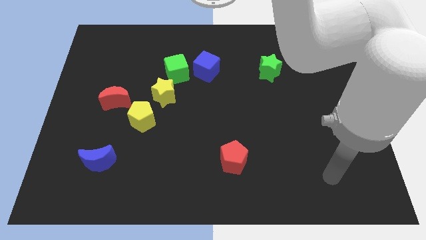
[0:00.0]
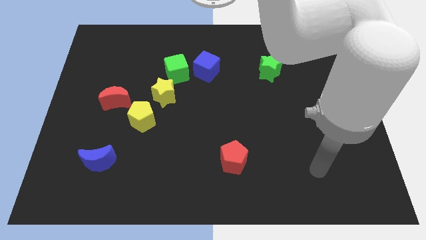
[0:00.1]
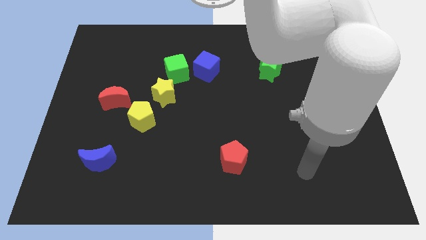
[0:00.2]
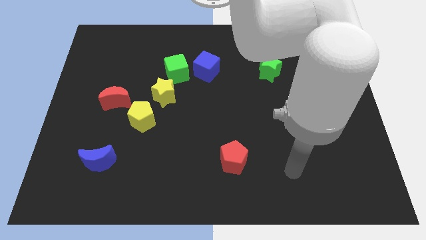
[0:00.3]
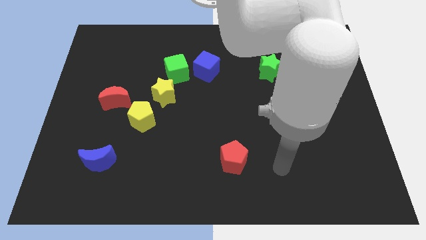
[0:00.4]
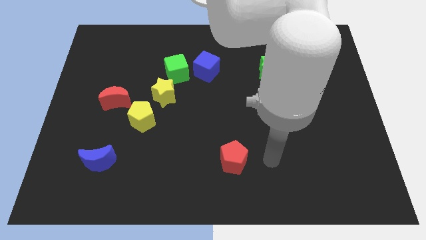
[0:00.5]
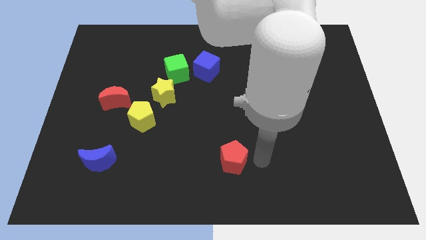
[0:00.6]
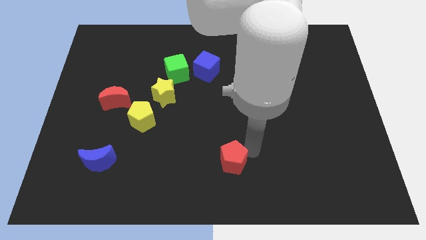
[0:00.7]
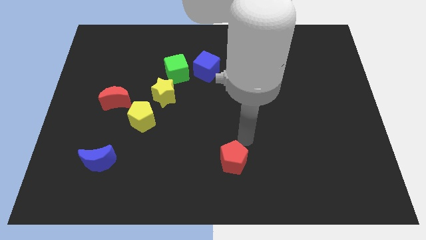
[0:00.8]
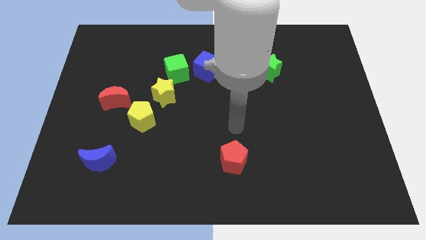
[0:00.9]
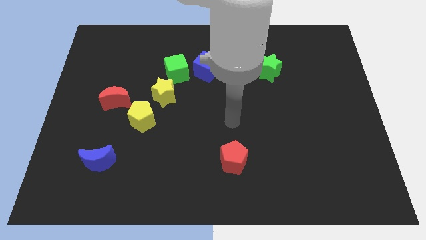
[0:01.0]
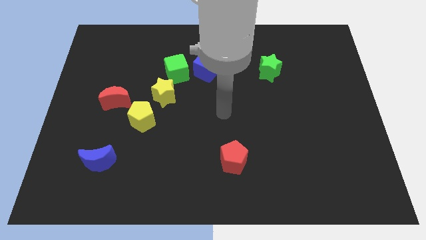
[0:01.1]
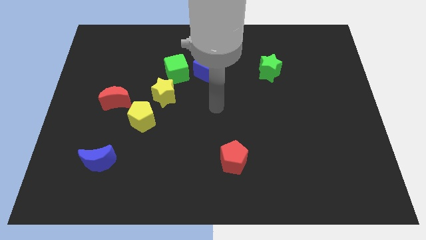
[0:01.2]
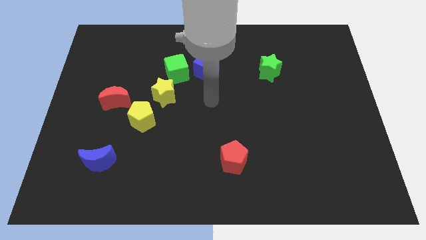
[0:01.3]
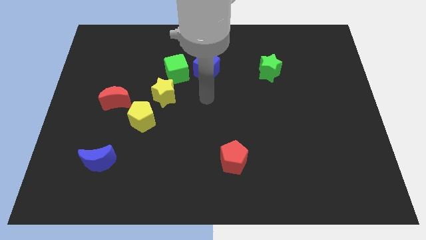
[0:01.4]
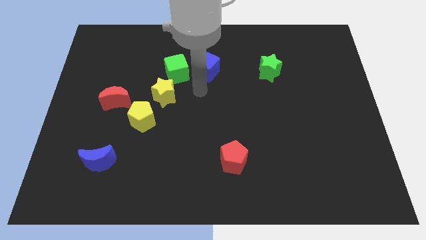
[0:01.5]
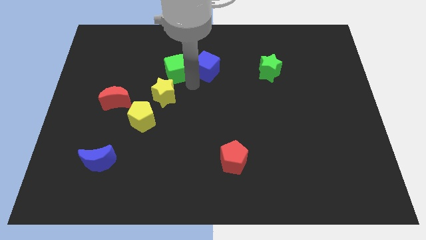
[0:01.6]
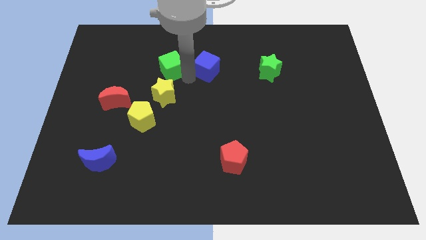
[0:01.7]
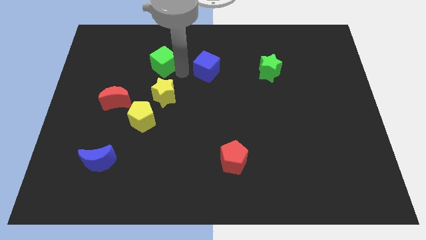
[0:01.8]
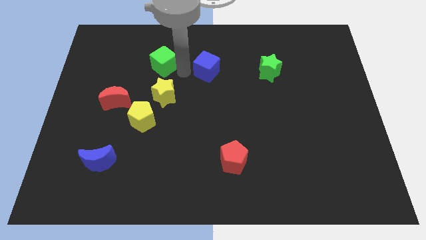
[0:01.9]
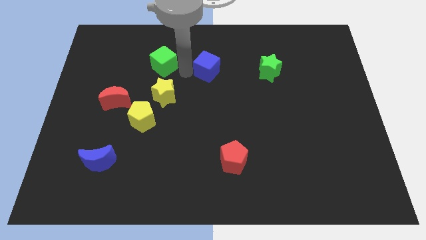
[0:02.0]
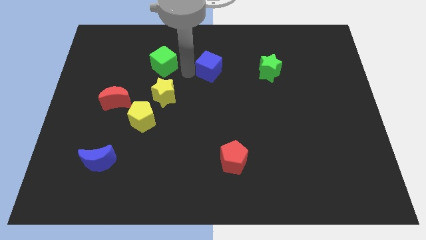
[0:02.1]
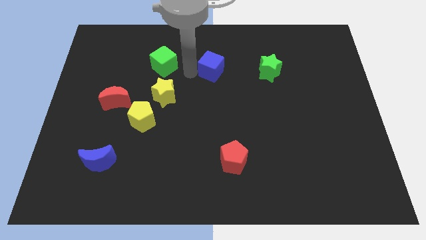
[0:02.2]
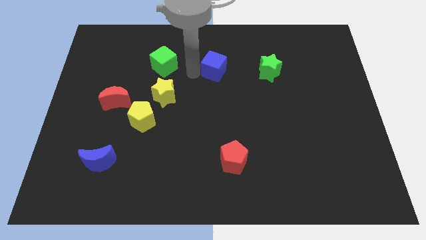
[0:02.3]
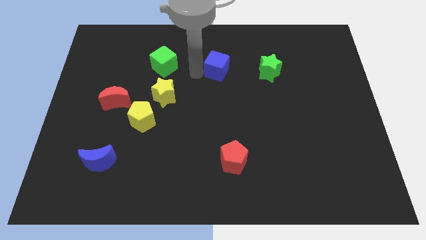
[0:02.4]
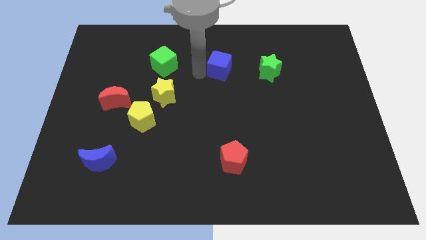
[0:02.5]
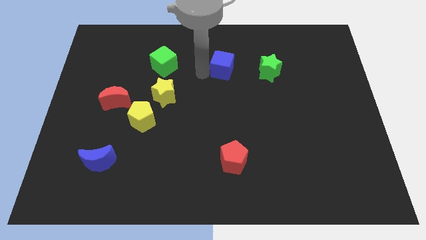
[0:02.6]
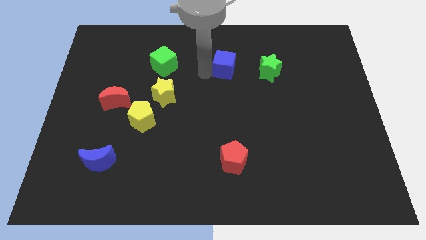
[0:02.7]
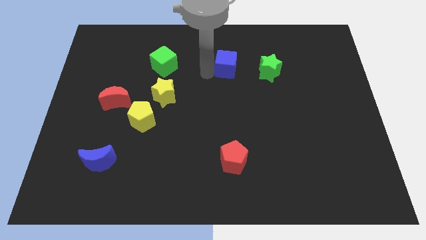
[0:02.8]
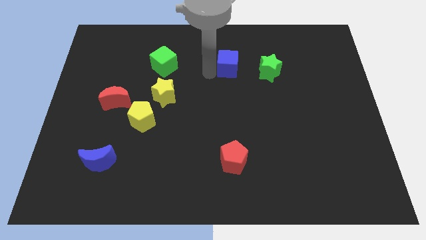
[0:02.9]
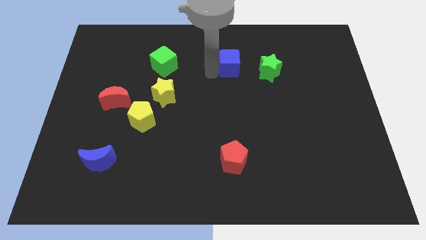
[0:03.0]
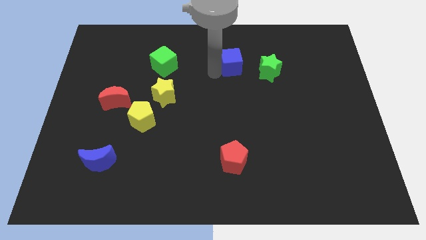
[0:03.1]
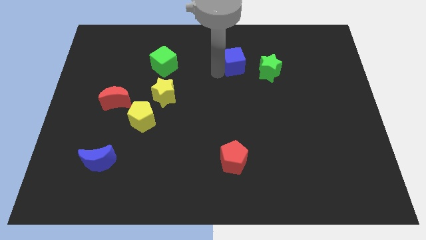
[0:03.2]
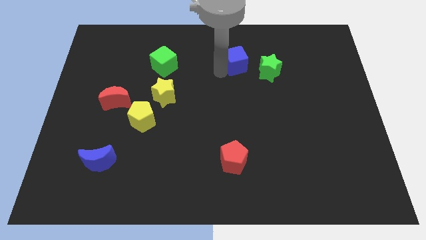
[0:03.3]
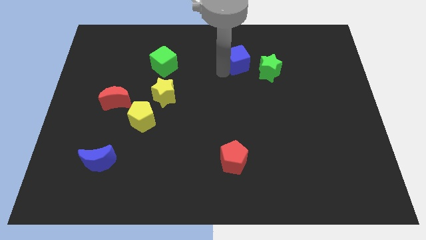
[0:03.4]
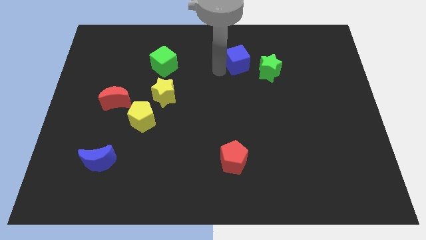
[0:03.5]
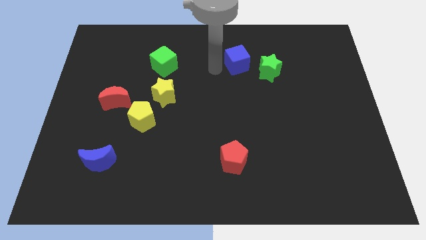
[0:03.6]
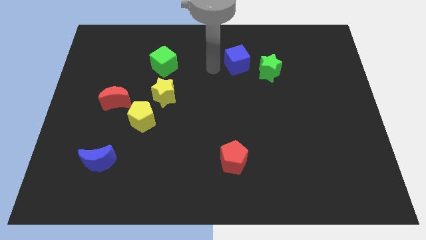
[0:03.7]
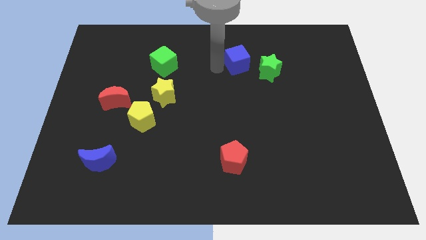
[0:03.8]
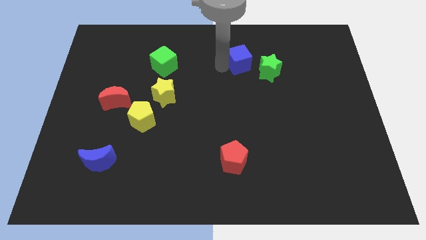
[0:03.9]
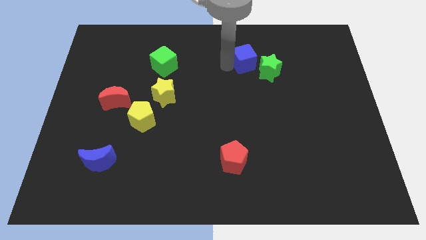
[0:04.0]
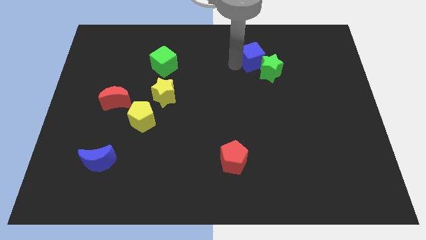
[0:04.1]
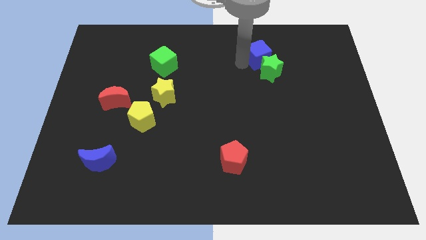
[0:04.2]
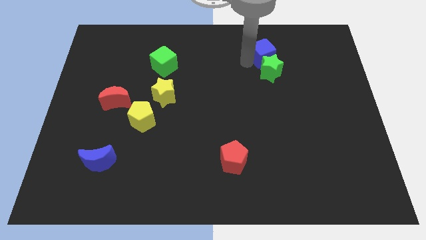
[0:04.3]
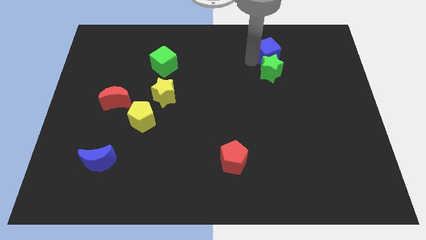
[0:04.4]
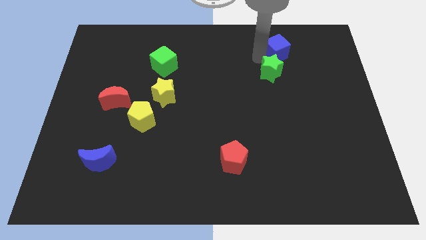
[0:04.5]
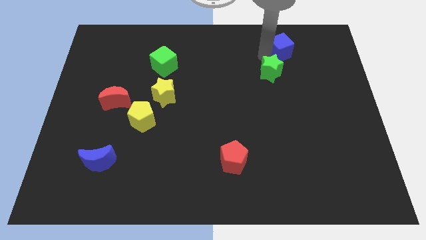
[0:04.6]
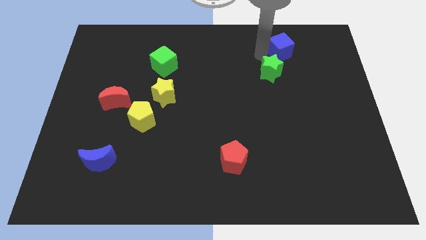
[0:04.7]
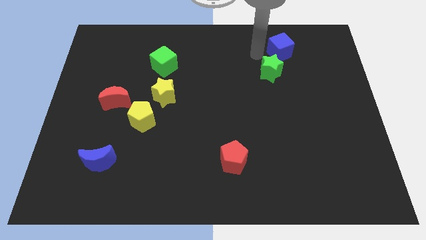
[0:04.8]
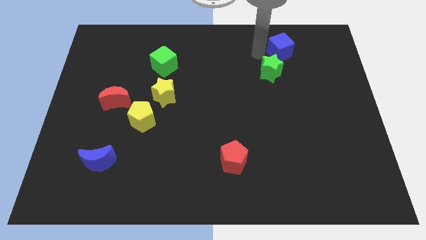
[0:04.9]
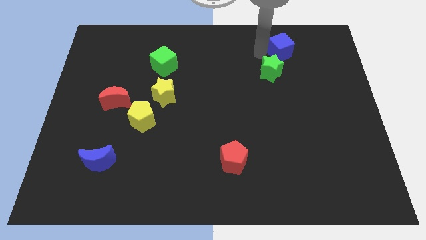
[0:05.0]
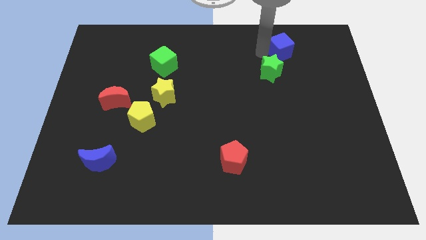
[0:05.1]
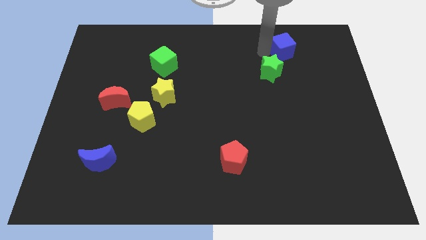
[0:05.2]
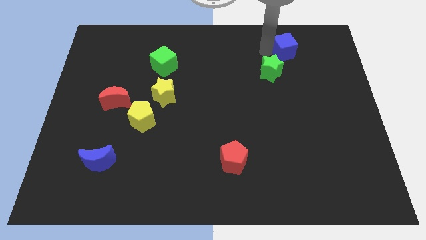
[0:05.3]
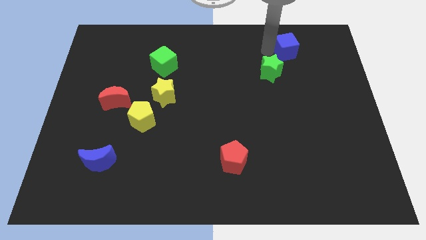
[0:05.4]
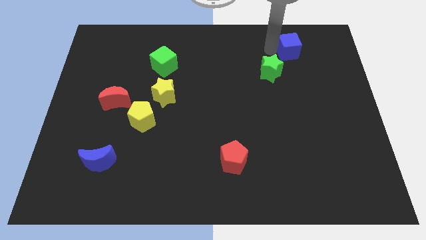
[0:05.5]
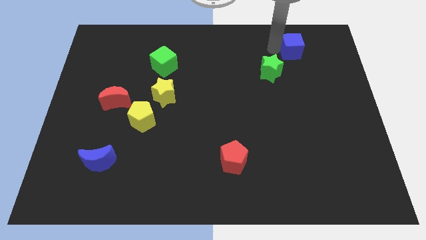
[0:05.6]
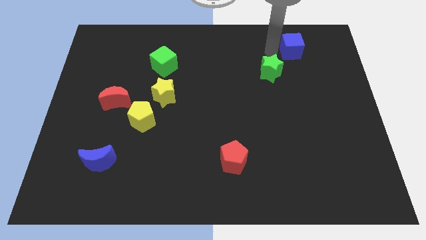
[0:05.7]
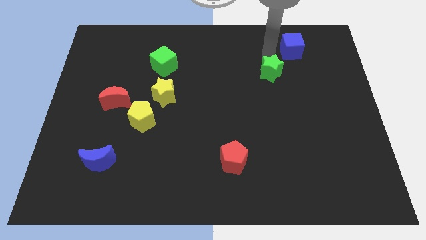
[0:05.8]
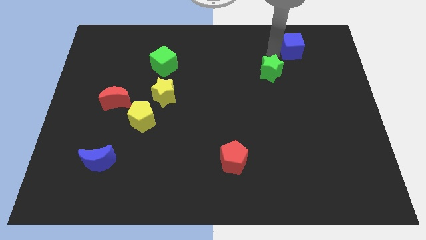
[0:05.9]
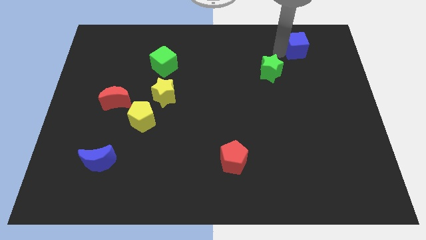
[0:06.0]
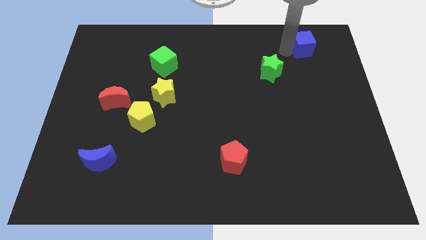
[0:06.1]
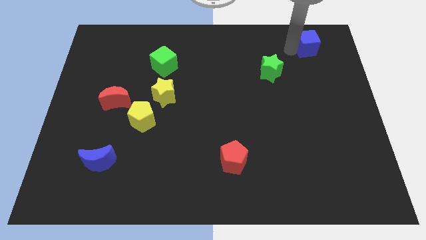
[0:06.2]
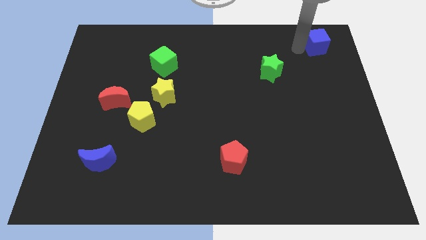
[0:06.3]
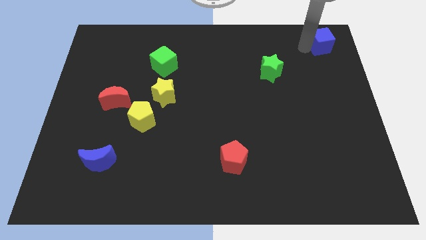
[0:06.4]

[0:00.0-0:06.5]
put the blue cube to the top right corner

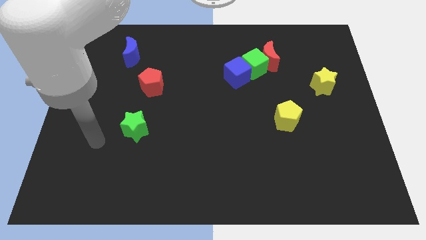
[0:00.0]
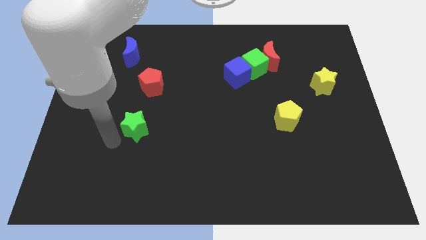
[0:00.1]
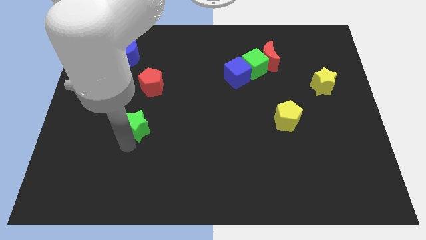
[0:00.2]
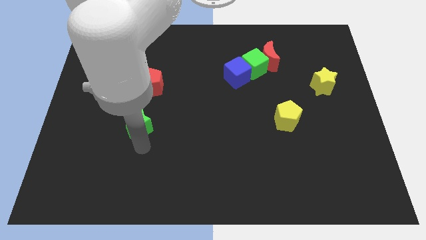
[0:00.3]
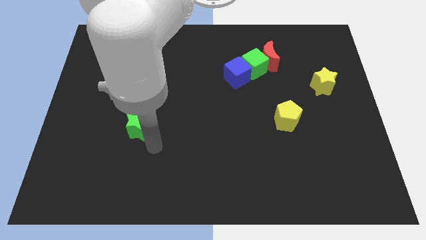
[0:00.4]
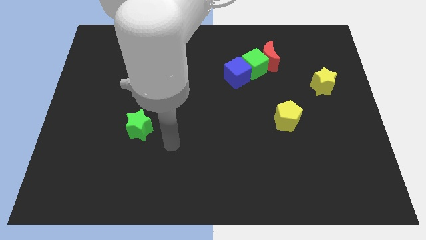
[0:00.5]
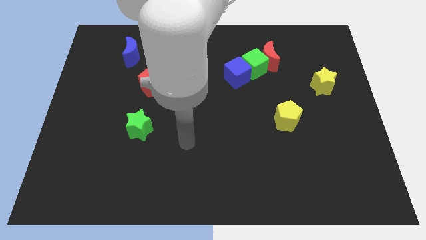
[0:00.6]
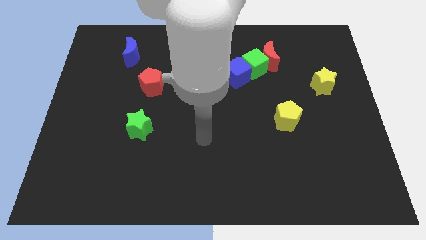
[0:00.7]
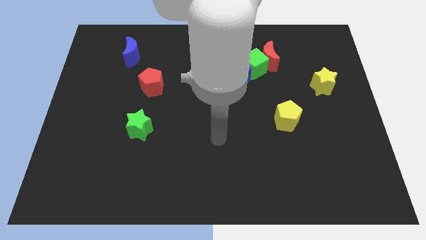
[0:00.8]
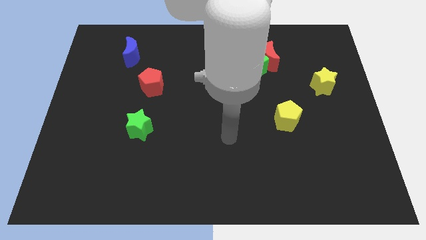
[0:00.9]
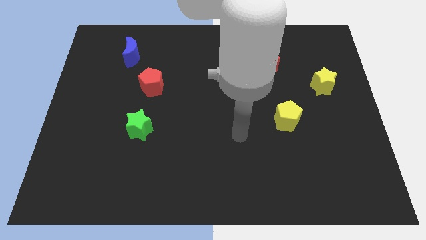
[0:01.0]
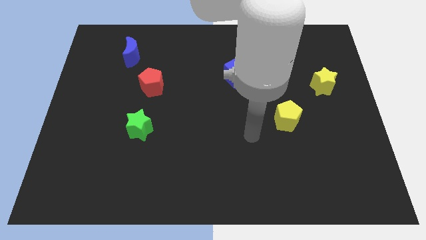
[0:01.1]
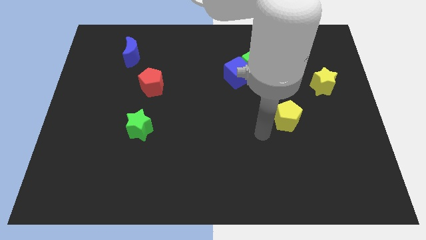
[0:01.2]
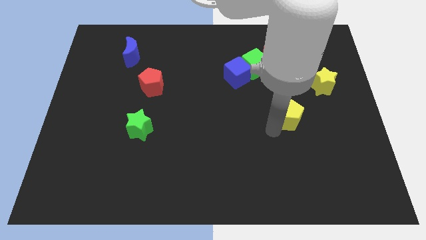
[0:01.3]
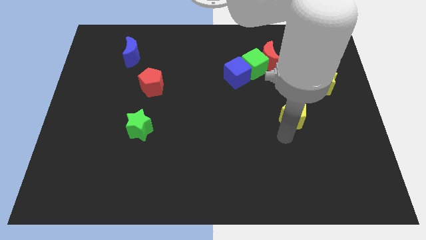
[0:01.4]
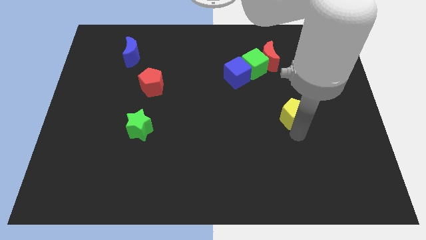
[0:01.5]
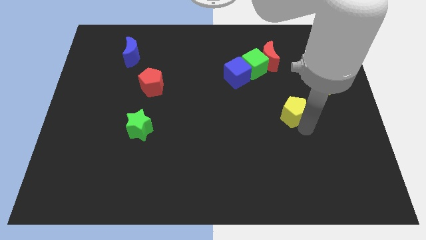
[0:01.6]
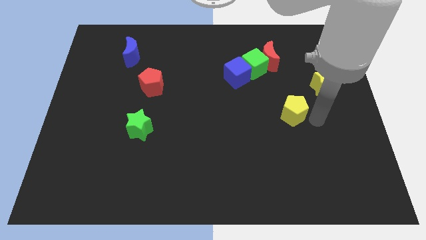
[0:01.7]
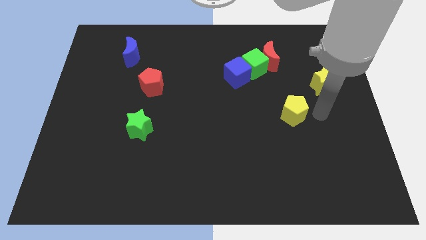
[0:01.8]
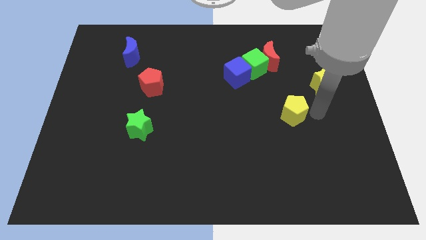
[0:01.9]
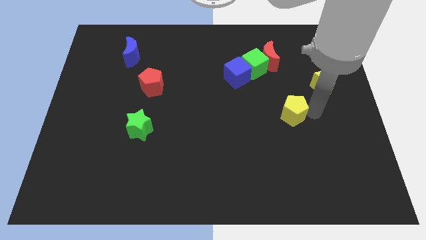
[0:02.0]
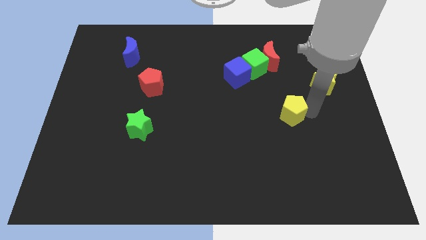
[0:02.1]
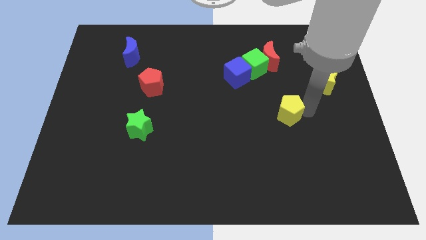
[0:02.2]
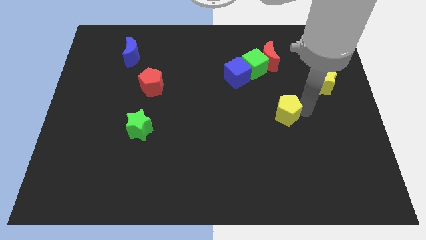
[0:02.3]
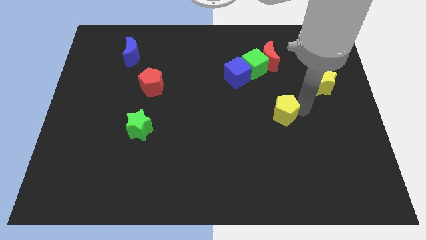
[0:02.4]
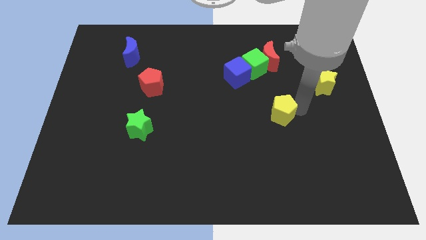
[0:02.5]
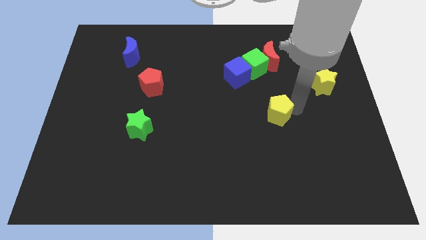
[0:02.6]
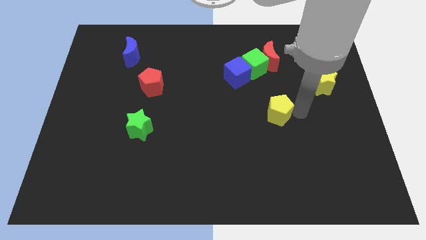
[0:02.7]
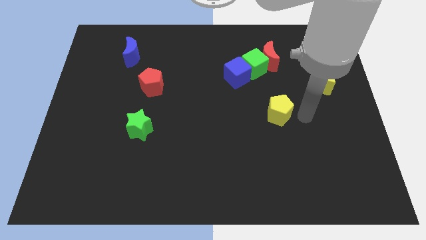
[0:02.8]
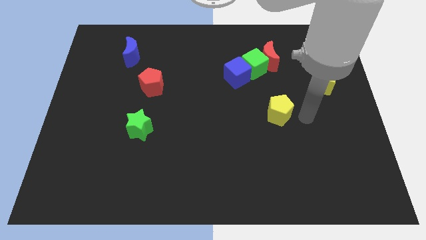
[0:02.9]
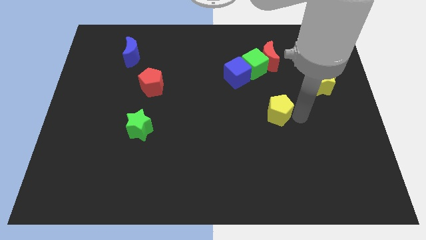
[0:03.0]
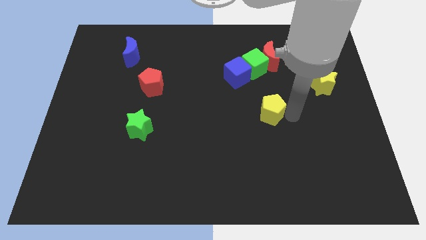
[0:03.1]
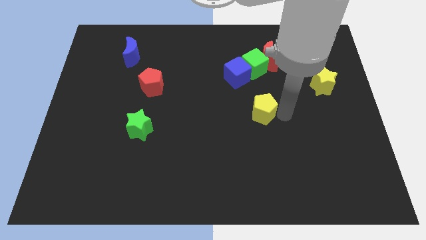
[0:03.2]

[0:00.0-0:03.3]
move the yellow pentagon to the center
